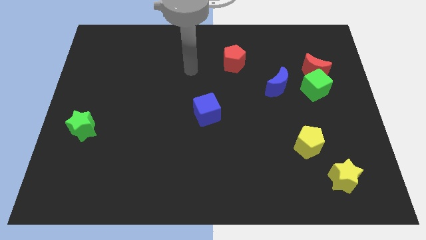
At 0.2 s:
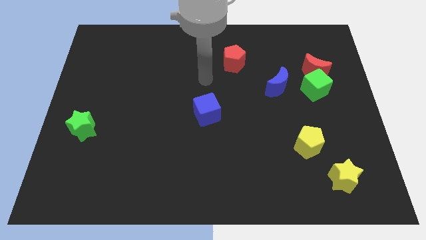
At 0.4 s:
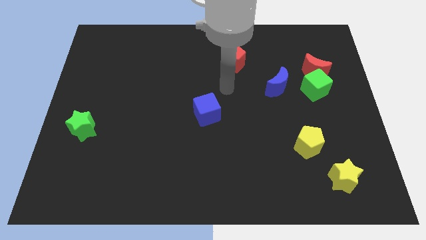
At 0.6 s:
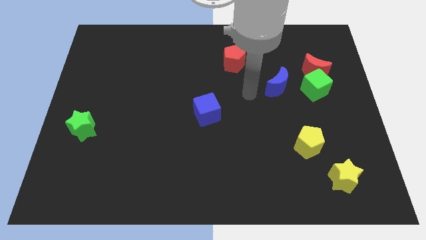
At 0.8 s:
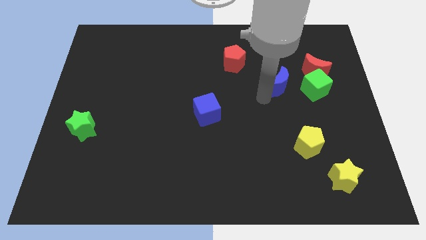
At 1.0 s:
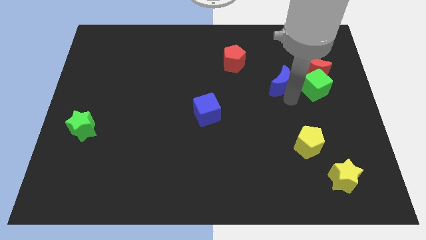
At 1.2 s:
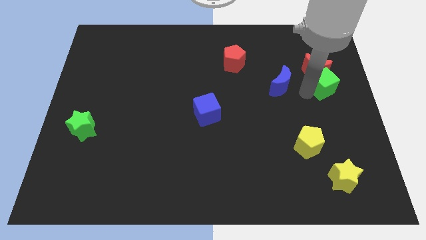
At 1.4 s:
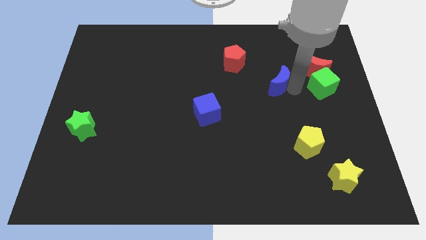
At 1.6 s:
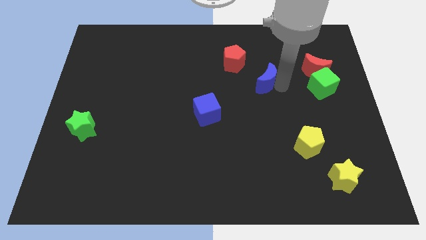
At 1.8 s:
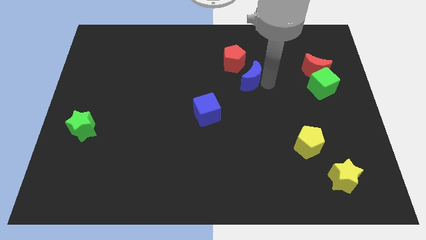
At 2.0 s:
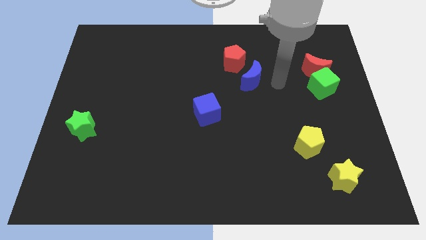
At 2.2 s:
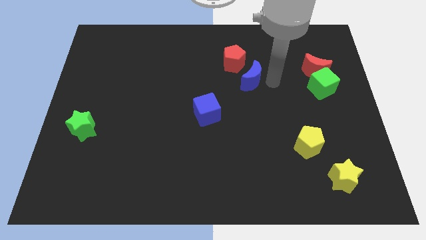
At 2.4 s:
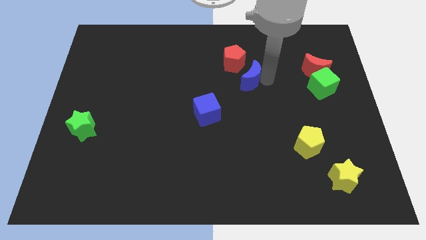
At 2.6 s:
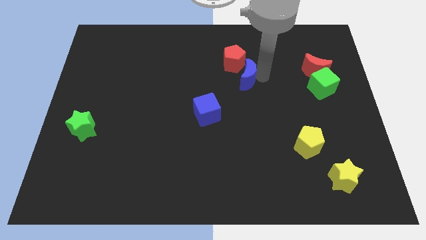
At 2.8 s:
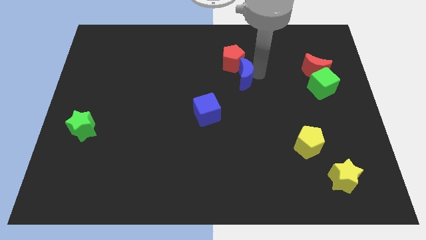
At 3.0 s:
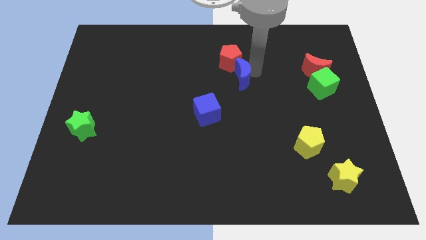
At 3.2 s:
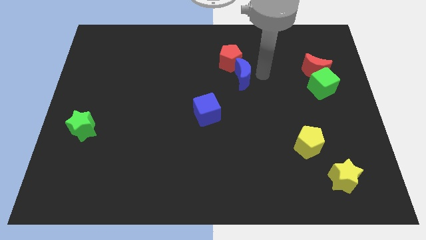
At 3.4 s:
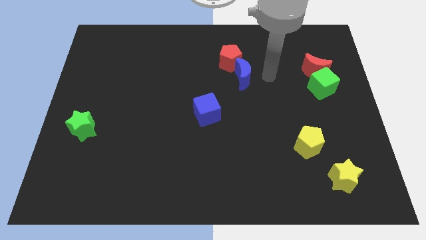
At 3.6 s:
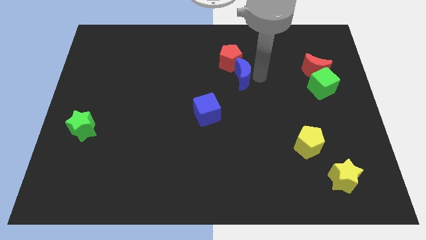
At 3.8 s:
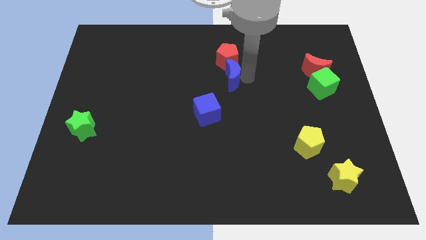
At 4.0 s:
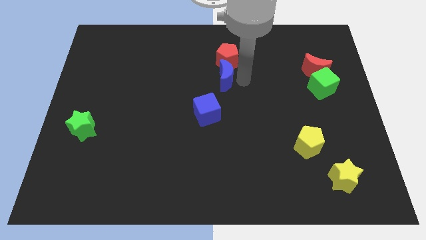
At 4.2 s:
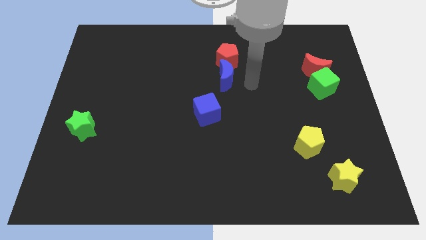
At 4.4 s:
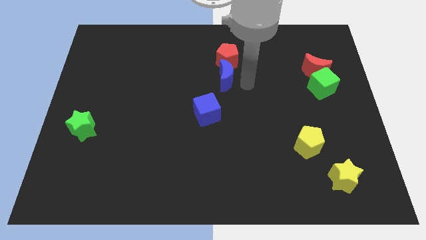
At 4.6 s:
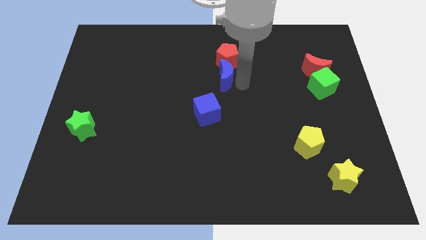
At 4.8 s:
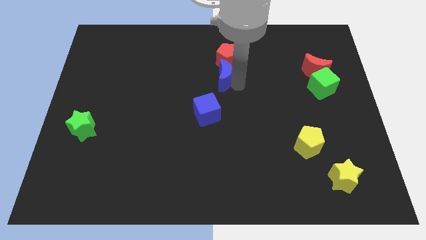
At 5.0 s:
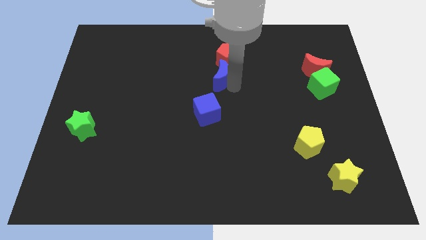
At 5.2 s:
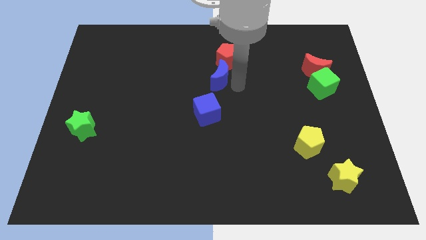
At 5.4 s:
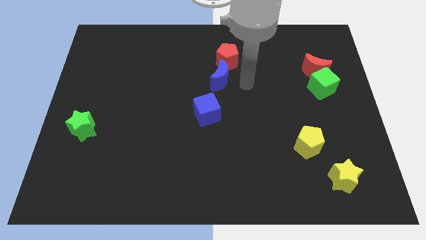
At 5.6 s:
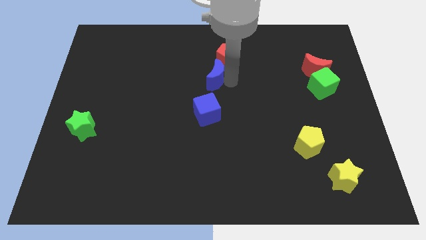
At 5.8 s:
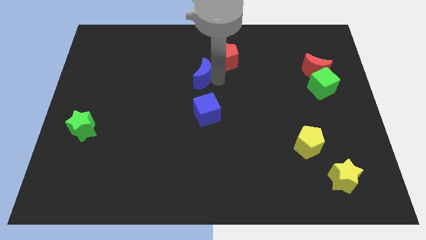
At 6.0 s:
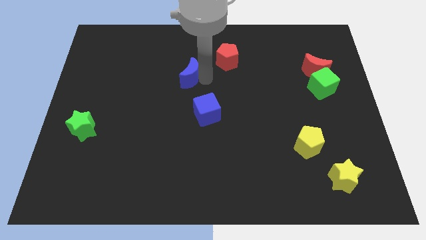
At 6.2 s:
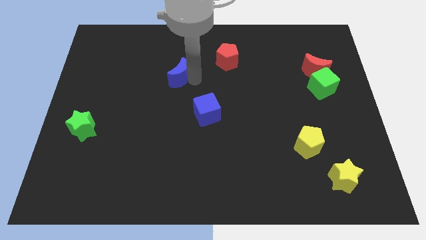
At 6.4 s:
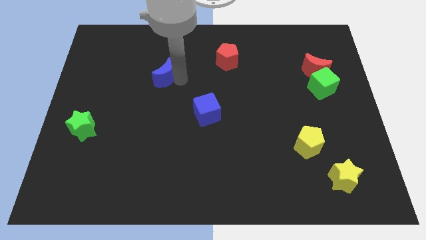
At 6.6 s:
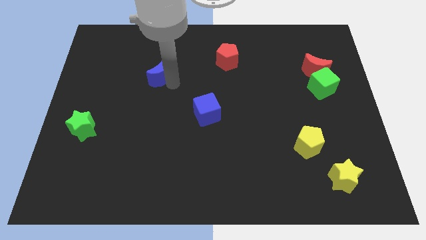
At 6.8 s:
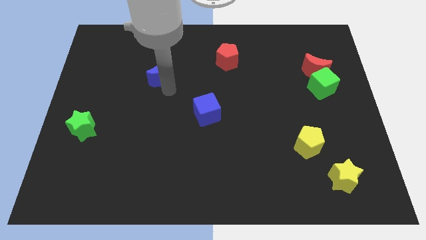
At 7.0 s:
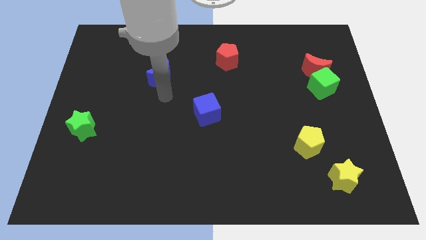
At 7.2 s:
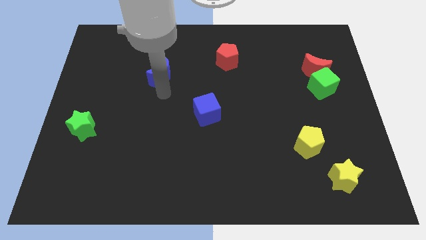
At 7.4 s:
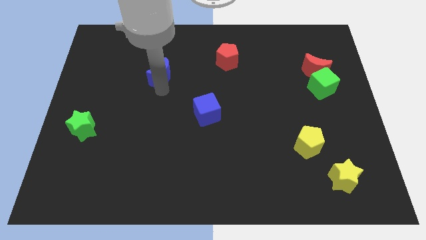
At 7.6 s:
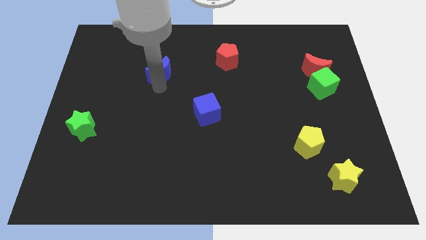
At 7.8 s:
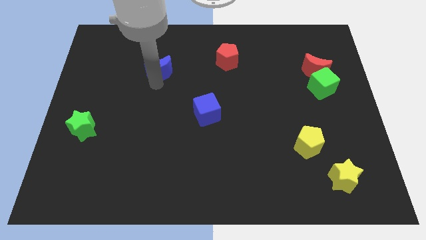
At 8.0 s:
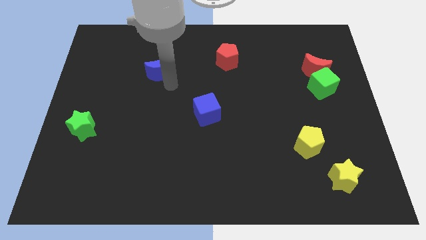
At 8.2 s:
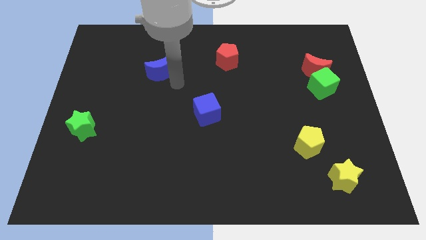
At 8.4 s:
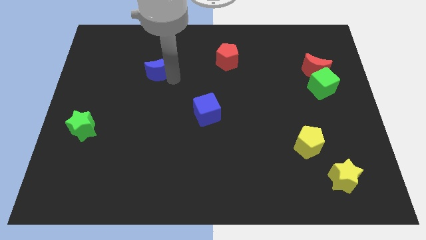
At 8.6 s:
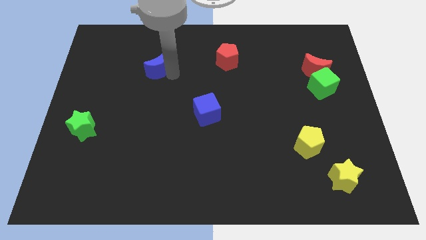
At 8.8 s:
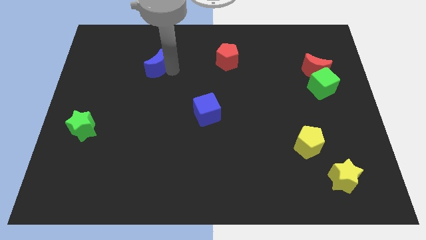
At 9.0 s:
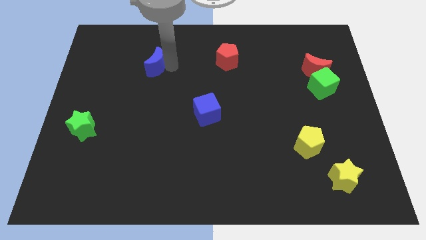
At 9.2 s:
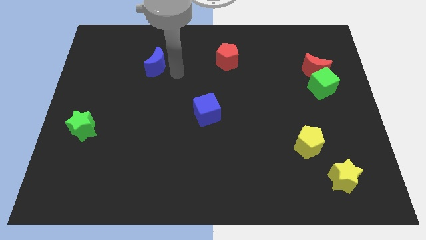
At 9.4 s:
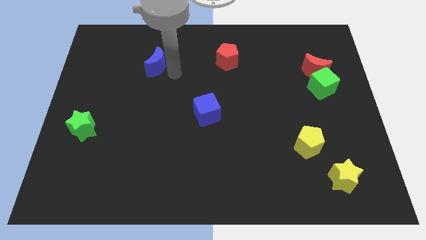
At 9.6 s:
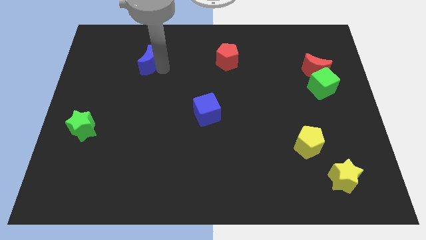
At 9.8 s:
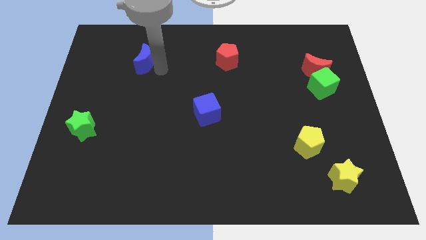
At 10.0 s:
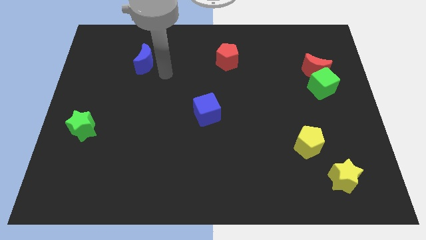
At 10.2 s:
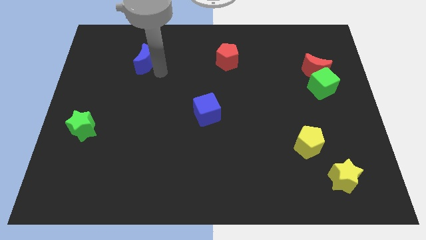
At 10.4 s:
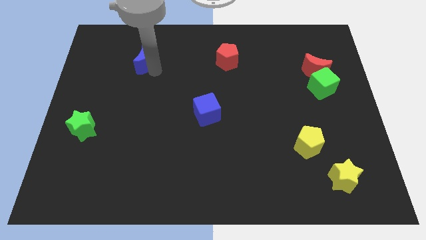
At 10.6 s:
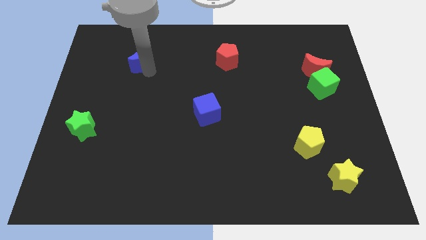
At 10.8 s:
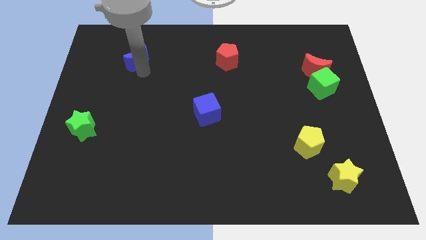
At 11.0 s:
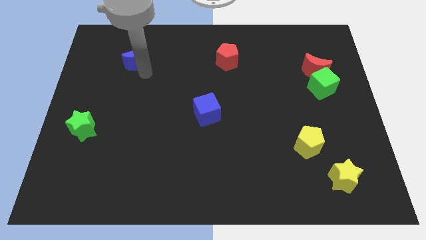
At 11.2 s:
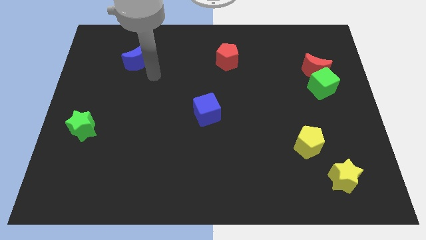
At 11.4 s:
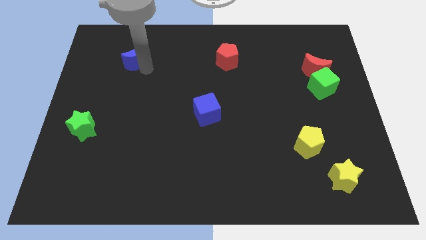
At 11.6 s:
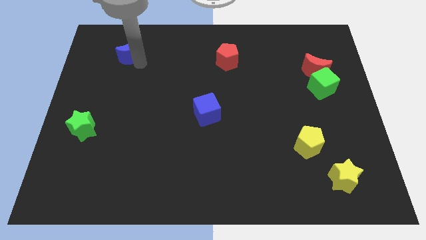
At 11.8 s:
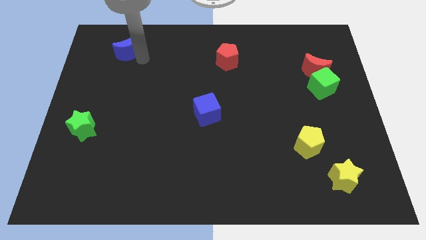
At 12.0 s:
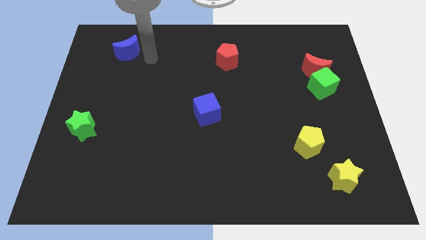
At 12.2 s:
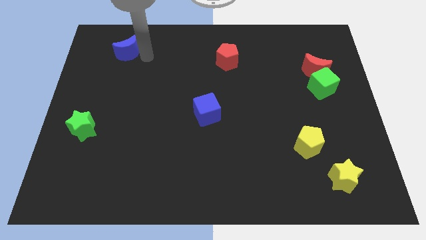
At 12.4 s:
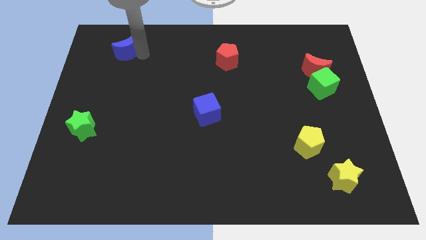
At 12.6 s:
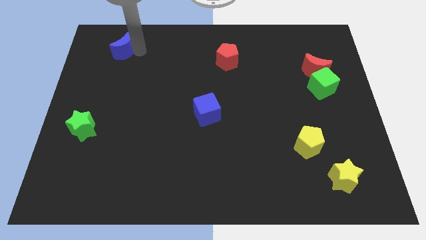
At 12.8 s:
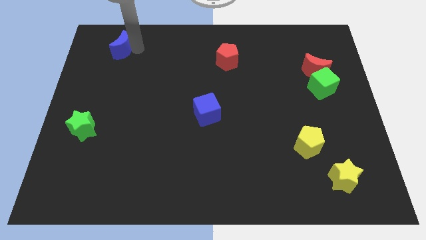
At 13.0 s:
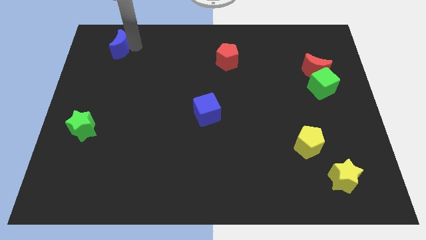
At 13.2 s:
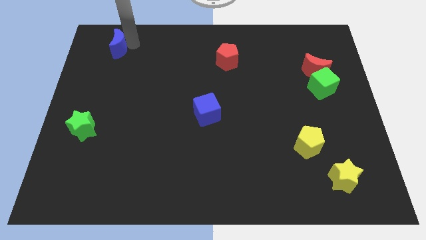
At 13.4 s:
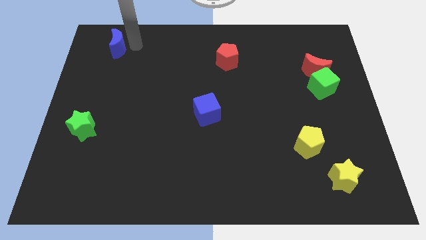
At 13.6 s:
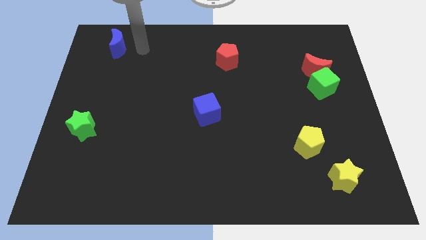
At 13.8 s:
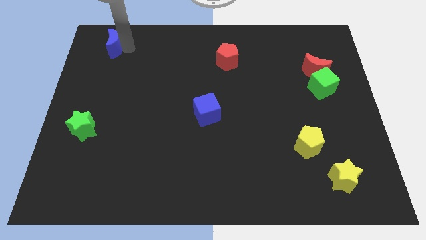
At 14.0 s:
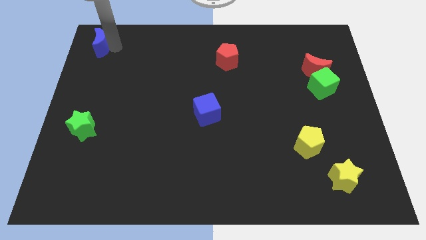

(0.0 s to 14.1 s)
move the blue moon to the upper left corner

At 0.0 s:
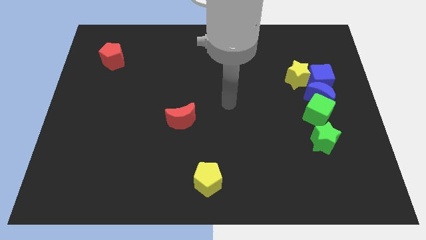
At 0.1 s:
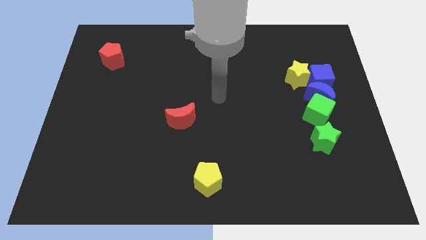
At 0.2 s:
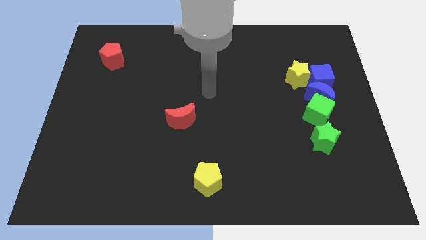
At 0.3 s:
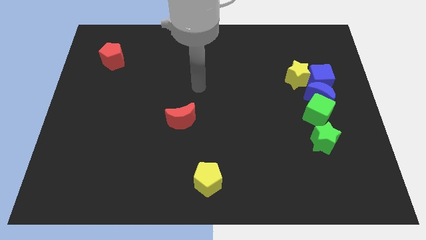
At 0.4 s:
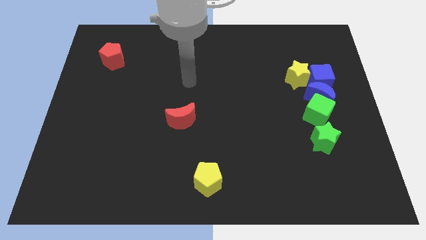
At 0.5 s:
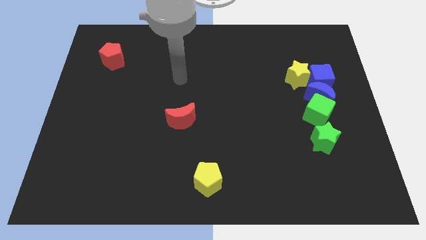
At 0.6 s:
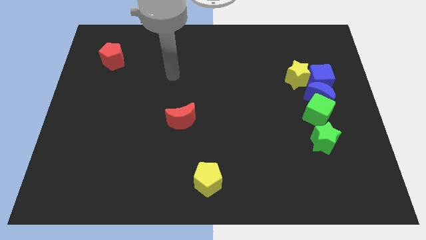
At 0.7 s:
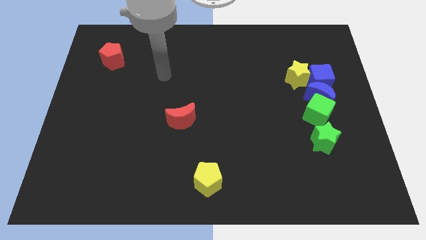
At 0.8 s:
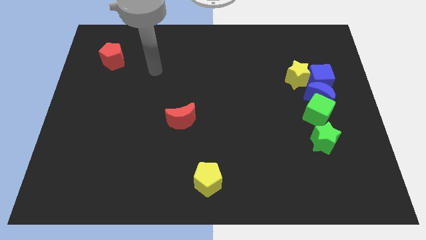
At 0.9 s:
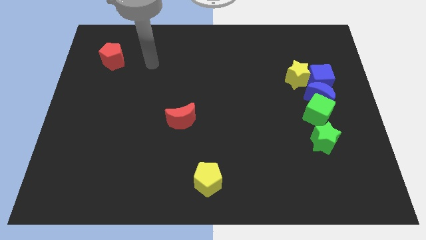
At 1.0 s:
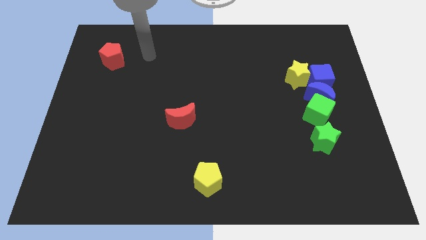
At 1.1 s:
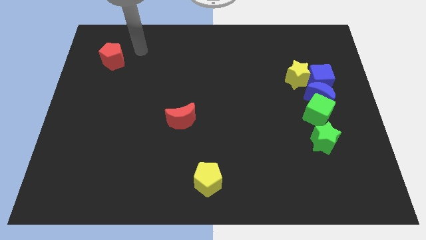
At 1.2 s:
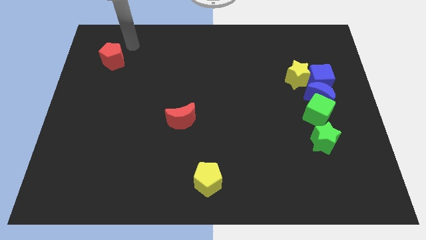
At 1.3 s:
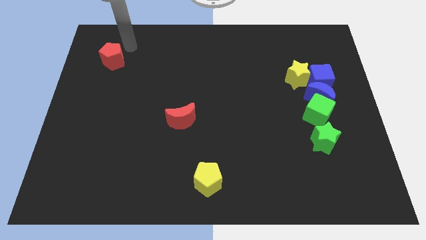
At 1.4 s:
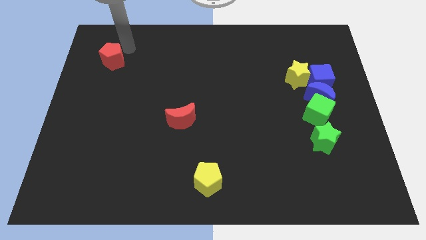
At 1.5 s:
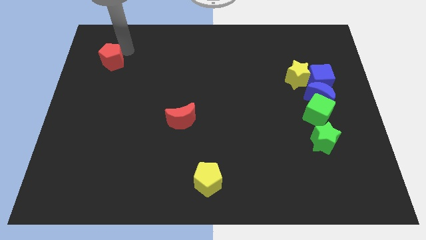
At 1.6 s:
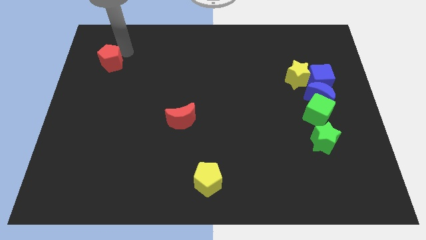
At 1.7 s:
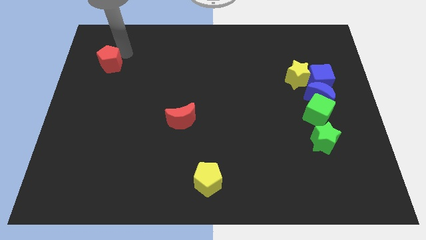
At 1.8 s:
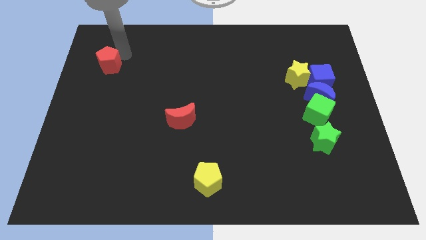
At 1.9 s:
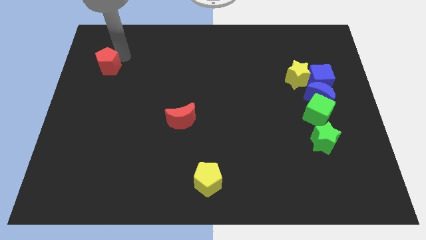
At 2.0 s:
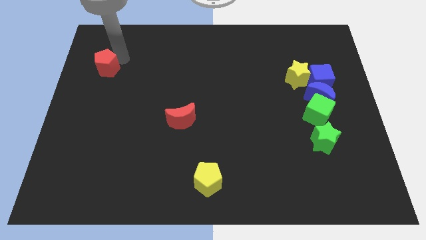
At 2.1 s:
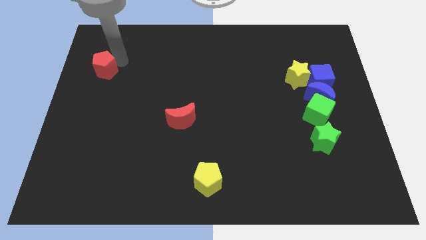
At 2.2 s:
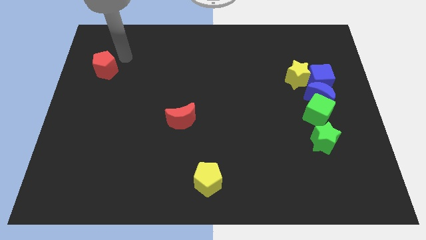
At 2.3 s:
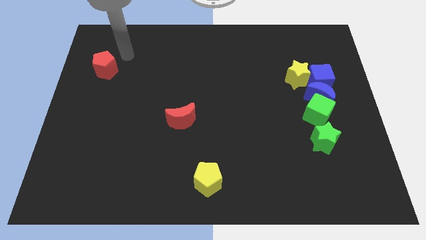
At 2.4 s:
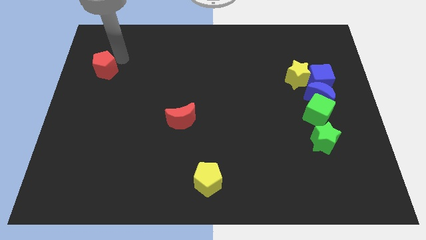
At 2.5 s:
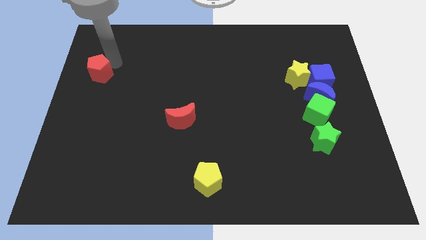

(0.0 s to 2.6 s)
slide the red pentagon to the left side
